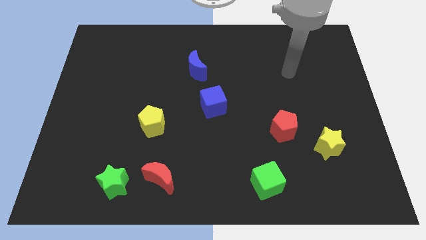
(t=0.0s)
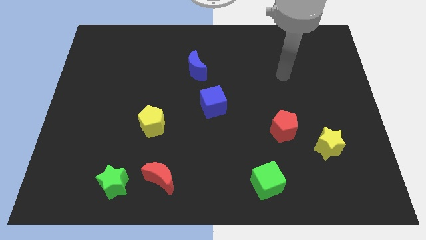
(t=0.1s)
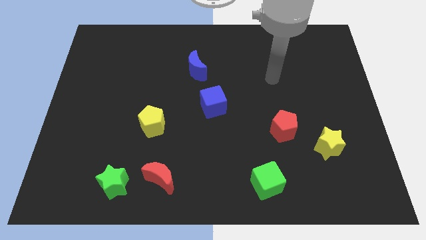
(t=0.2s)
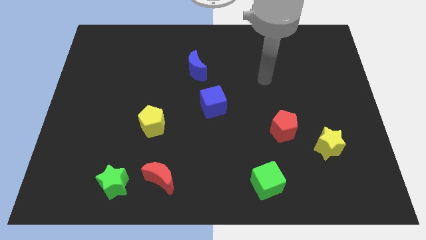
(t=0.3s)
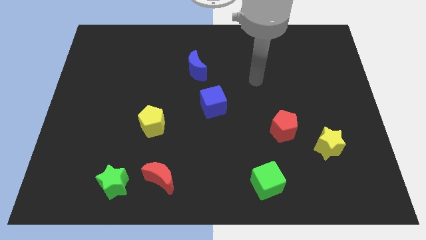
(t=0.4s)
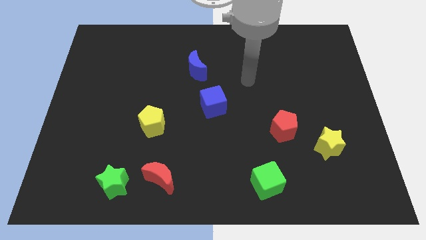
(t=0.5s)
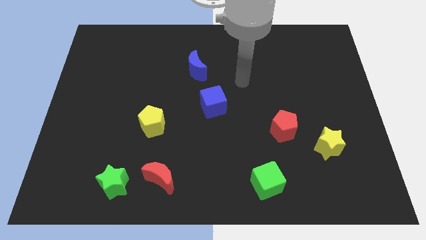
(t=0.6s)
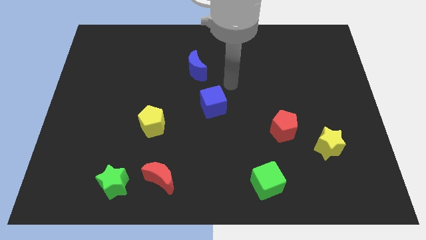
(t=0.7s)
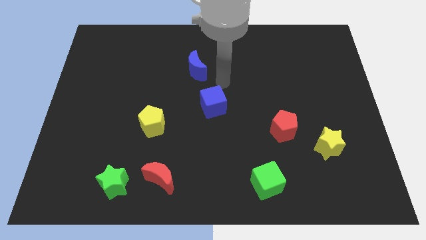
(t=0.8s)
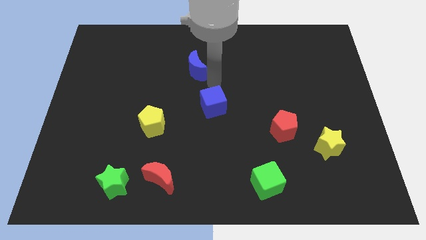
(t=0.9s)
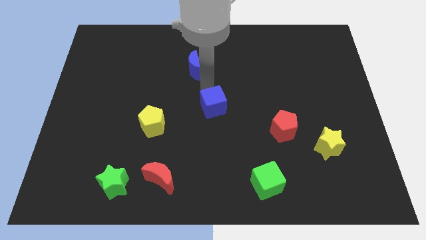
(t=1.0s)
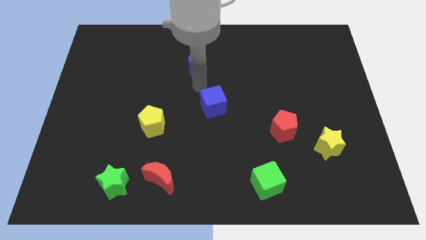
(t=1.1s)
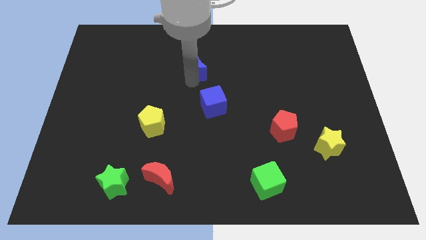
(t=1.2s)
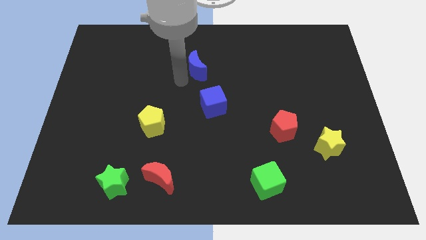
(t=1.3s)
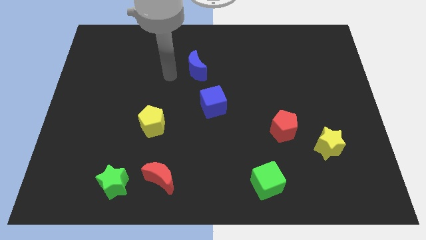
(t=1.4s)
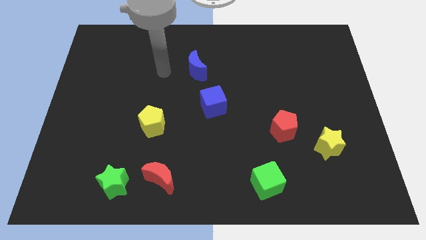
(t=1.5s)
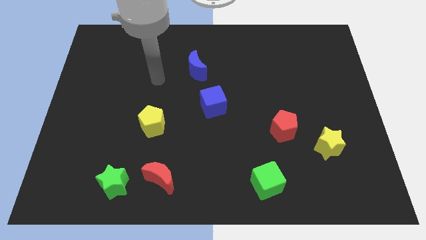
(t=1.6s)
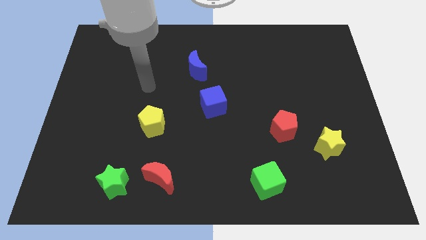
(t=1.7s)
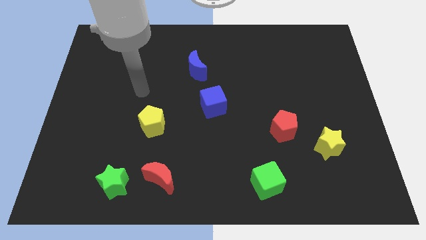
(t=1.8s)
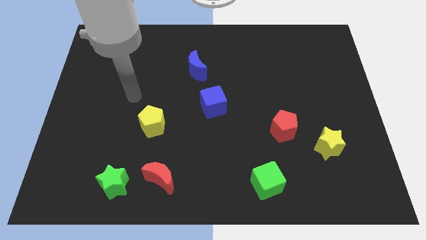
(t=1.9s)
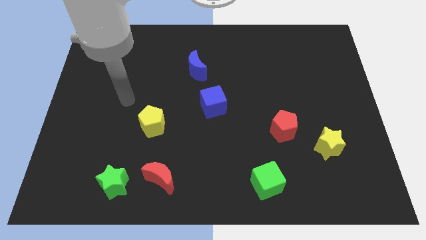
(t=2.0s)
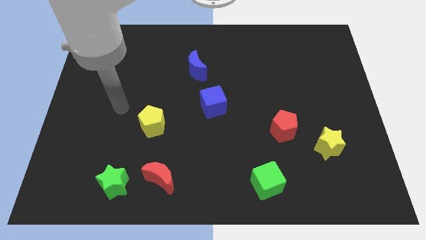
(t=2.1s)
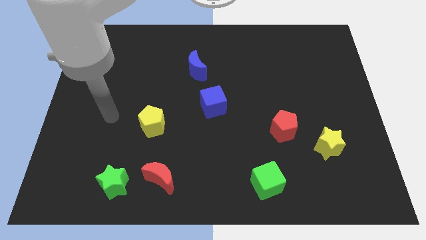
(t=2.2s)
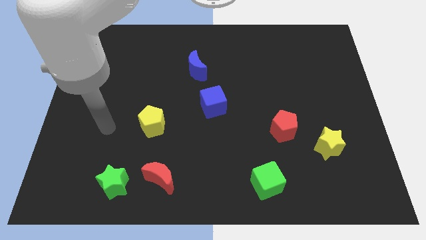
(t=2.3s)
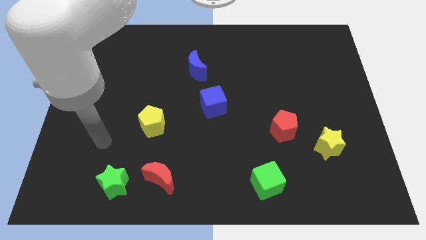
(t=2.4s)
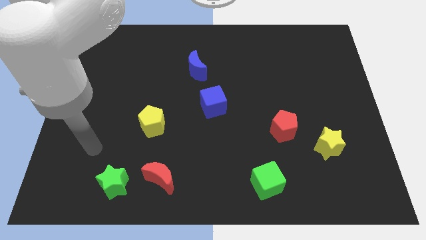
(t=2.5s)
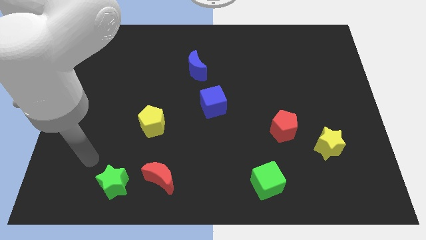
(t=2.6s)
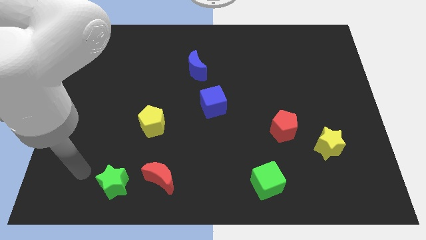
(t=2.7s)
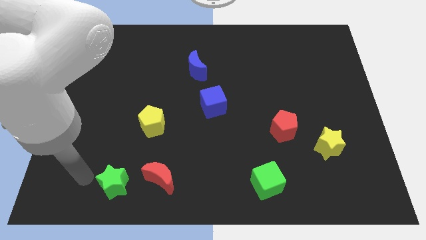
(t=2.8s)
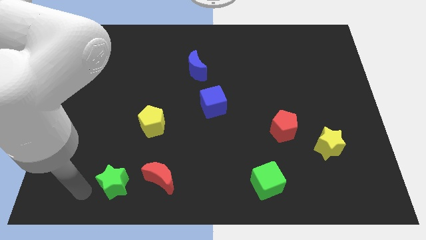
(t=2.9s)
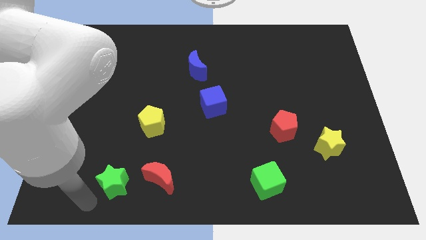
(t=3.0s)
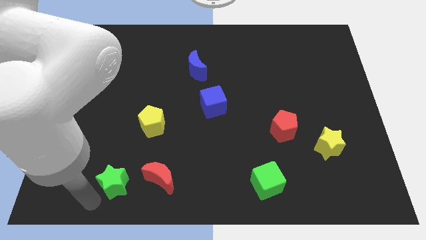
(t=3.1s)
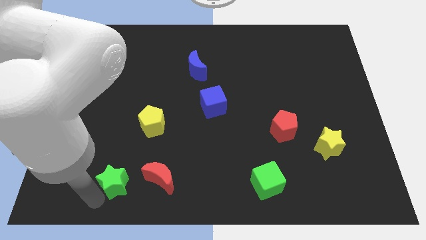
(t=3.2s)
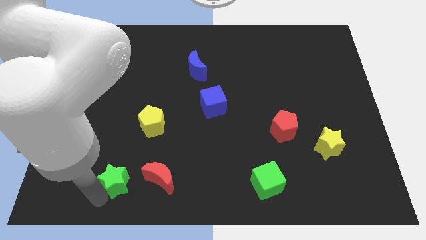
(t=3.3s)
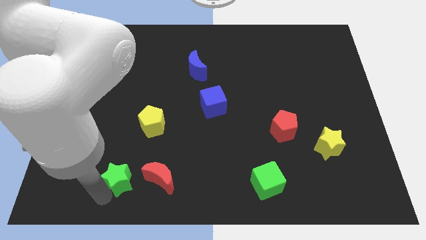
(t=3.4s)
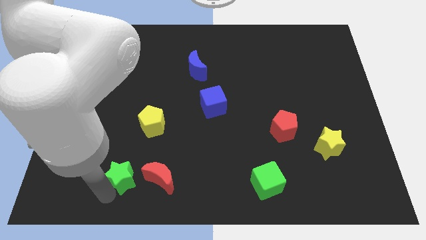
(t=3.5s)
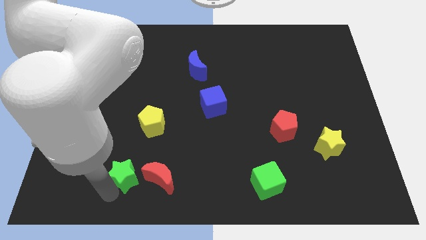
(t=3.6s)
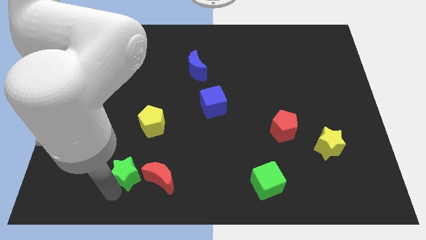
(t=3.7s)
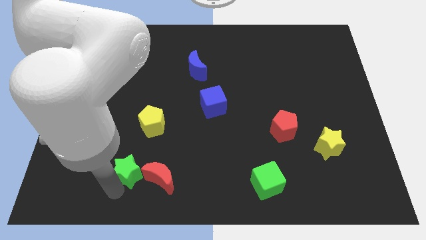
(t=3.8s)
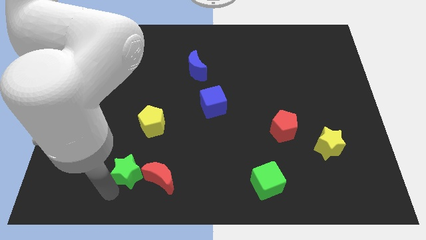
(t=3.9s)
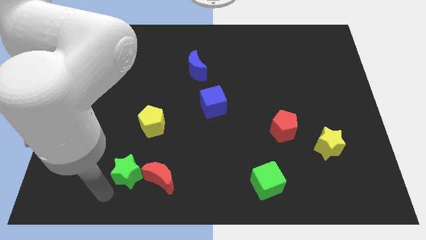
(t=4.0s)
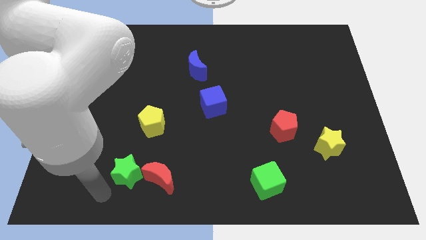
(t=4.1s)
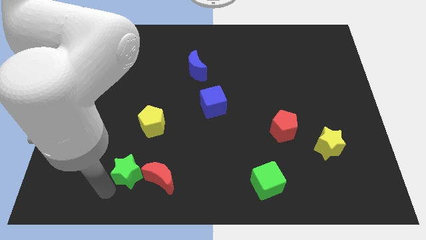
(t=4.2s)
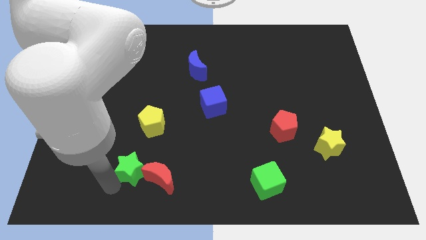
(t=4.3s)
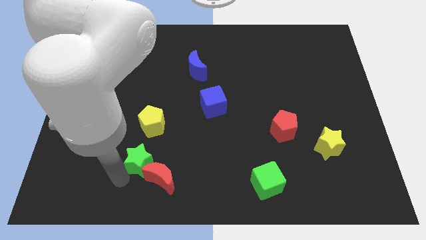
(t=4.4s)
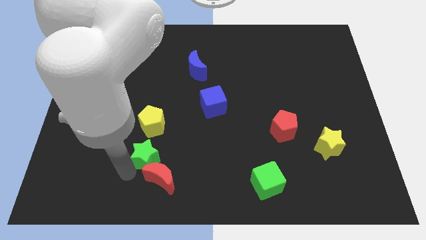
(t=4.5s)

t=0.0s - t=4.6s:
move the green star diagonally upwards and to the right a little

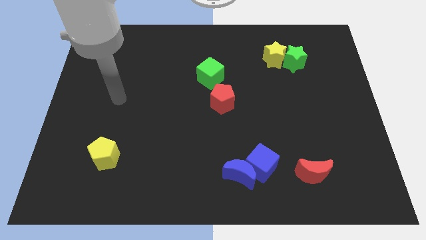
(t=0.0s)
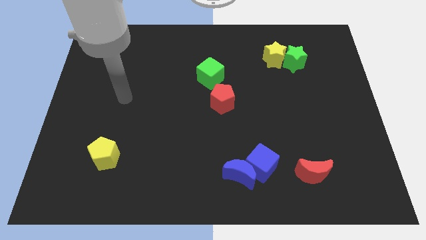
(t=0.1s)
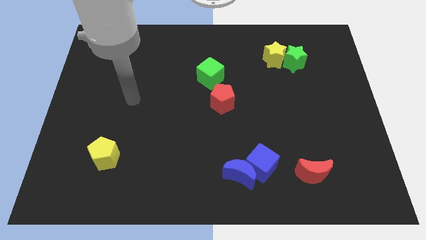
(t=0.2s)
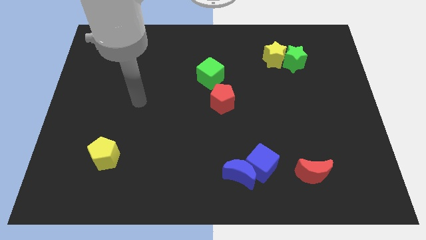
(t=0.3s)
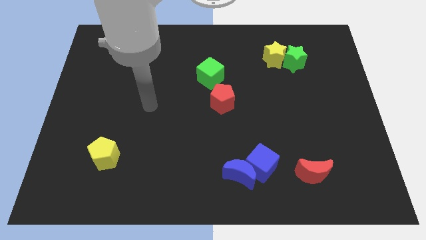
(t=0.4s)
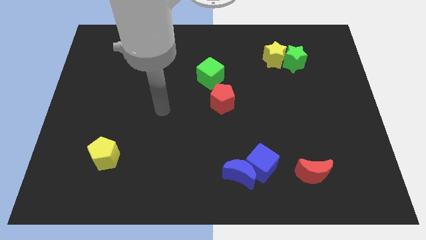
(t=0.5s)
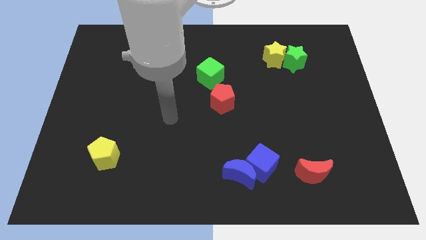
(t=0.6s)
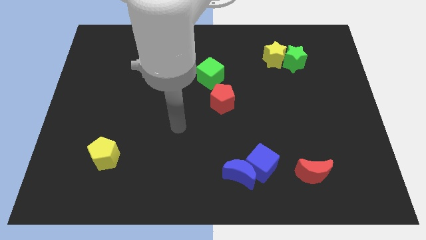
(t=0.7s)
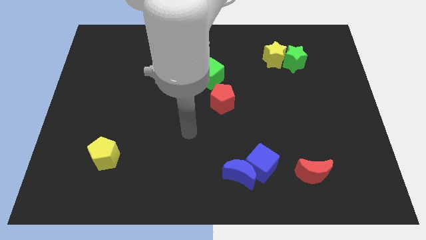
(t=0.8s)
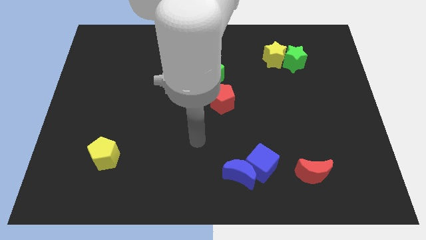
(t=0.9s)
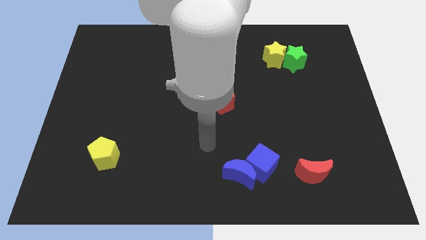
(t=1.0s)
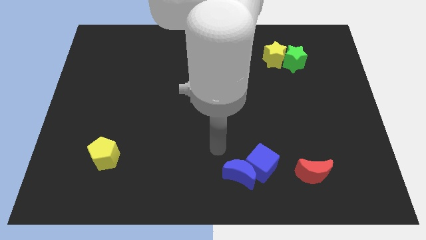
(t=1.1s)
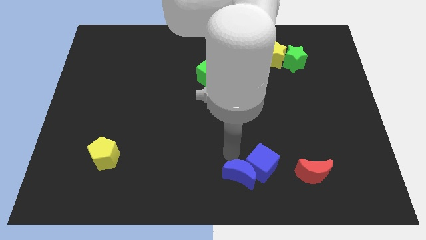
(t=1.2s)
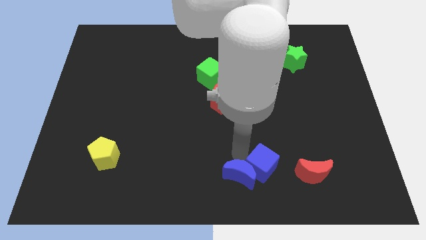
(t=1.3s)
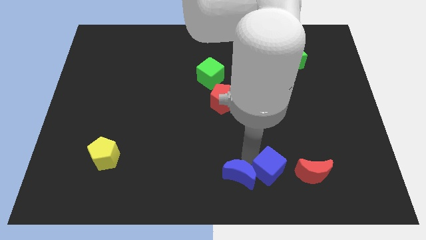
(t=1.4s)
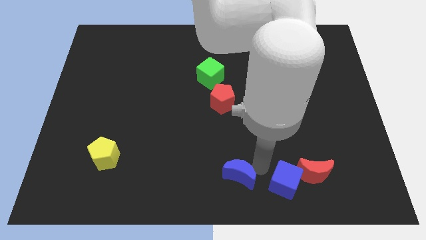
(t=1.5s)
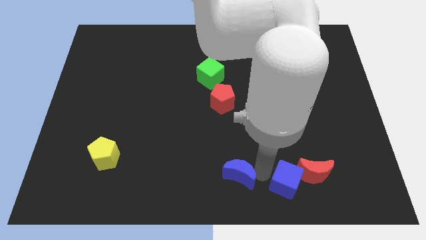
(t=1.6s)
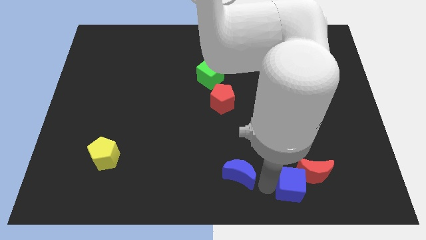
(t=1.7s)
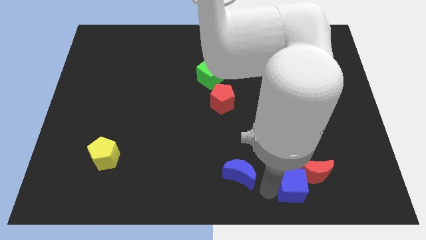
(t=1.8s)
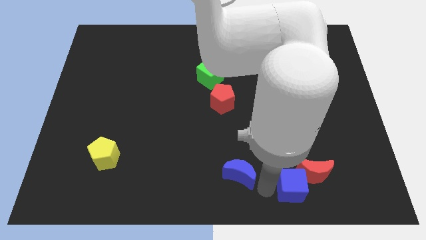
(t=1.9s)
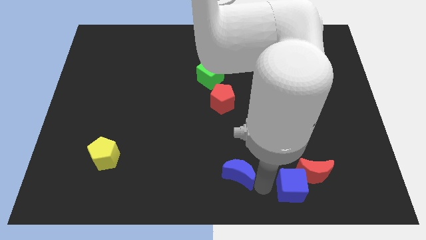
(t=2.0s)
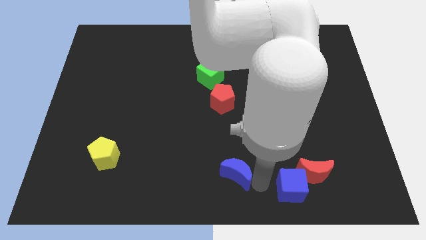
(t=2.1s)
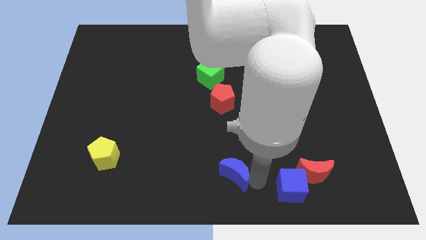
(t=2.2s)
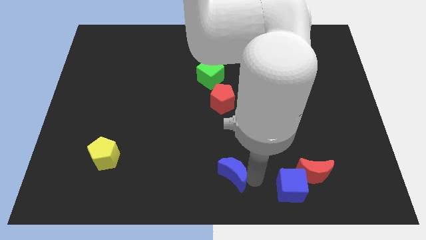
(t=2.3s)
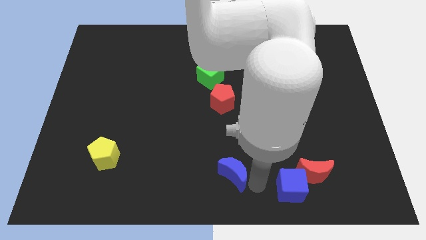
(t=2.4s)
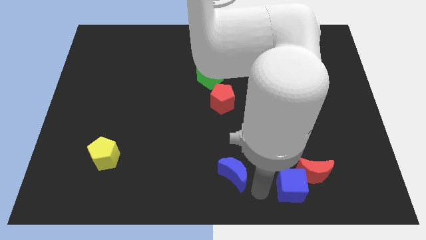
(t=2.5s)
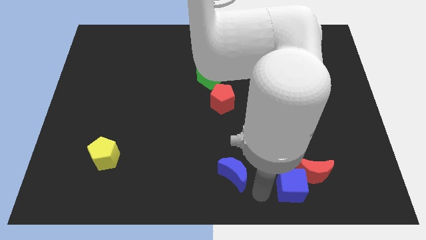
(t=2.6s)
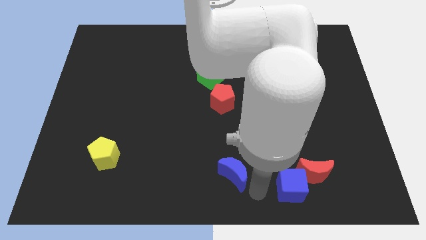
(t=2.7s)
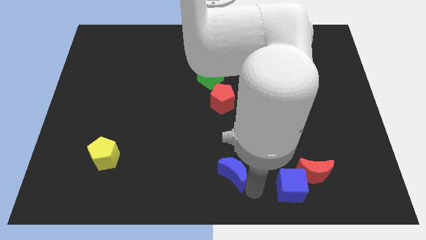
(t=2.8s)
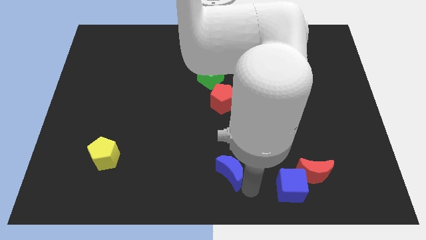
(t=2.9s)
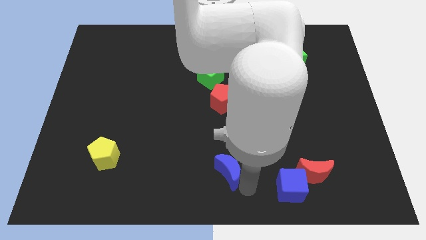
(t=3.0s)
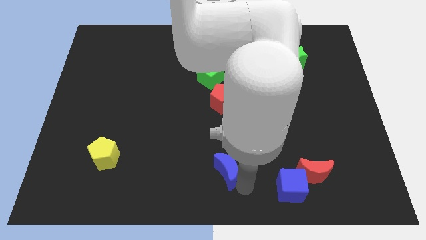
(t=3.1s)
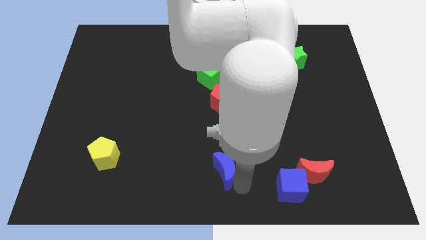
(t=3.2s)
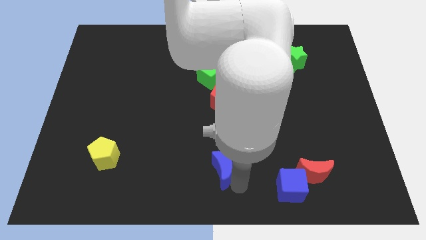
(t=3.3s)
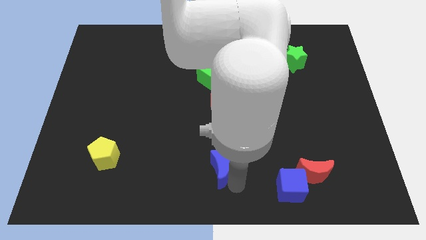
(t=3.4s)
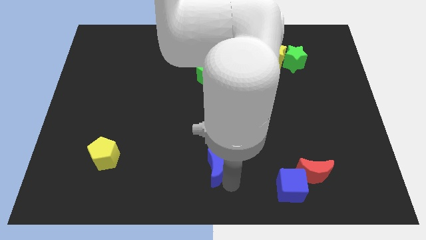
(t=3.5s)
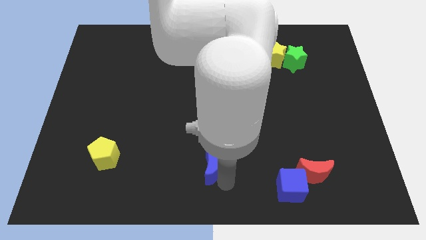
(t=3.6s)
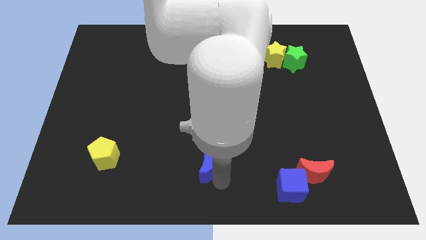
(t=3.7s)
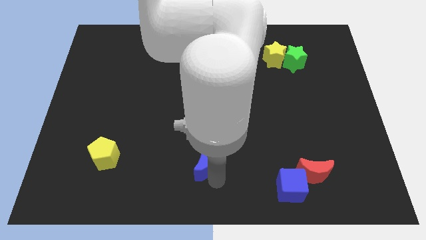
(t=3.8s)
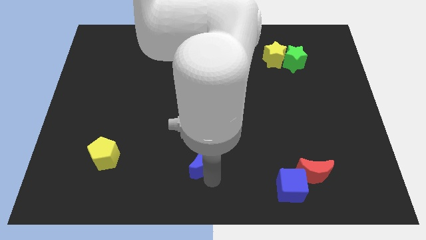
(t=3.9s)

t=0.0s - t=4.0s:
push the blue moon upwards and left diagonally a little bit
